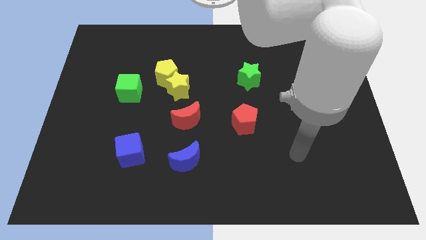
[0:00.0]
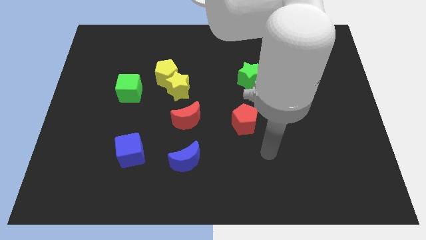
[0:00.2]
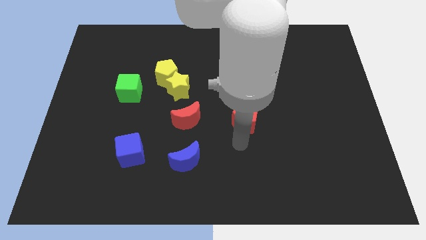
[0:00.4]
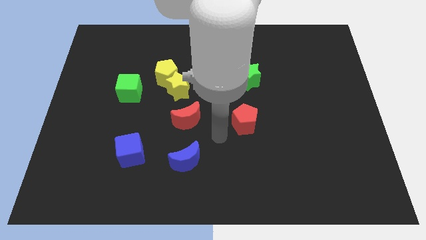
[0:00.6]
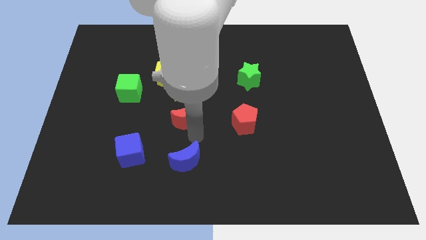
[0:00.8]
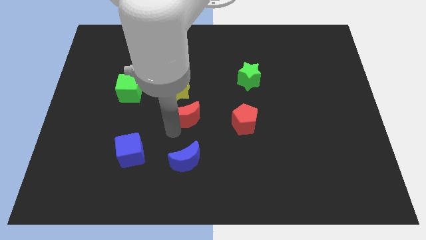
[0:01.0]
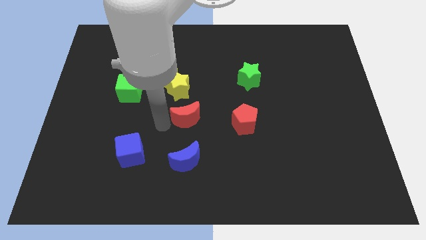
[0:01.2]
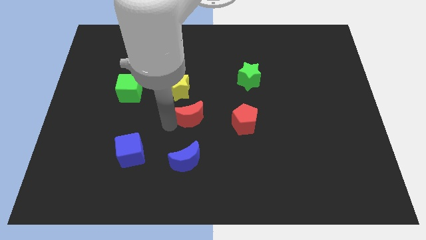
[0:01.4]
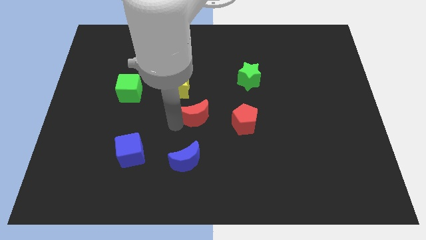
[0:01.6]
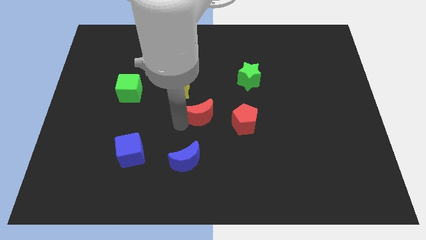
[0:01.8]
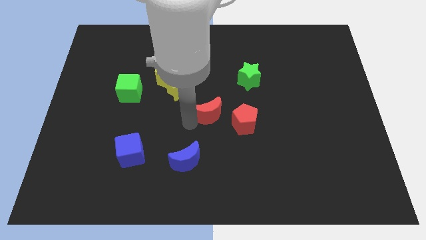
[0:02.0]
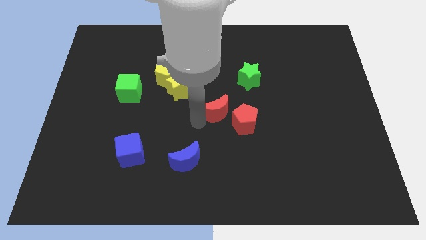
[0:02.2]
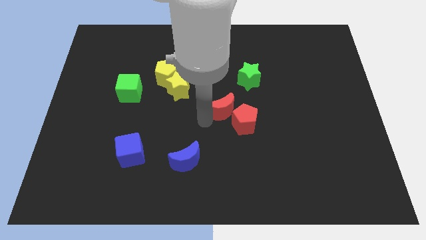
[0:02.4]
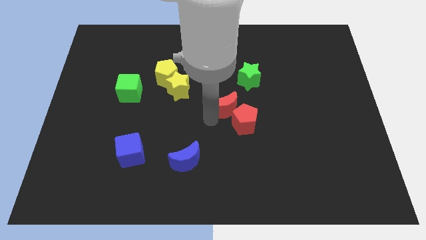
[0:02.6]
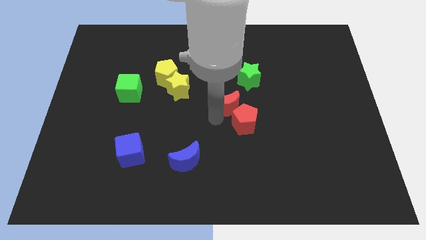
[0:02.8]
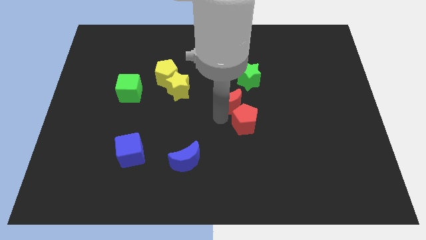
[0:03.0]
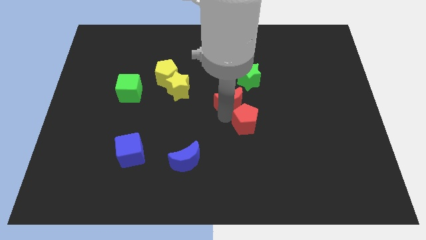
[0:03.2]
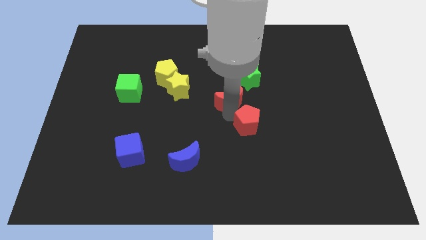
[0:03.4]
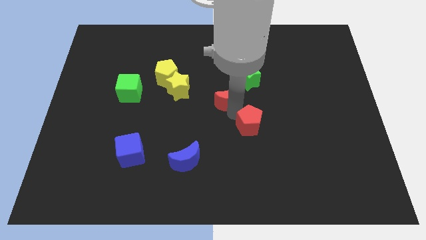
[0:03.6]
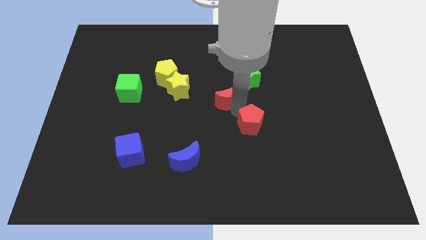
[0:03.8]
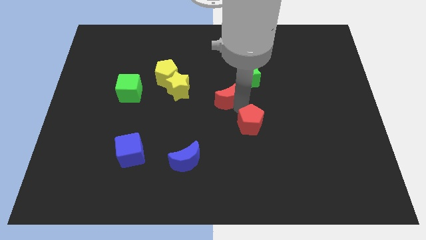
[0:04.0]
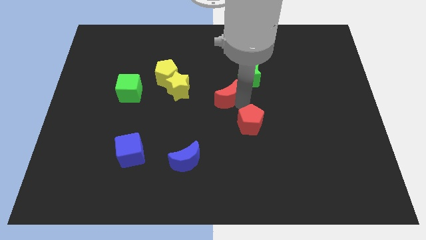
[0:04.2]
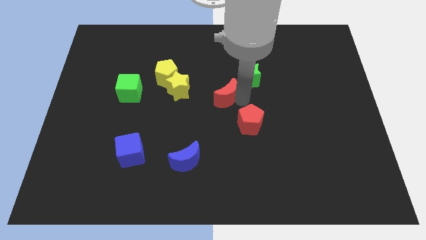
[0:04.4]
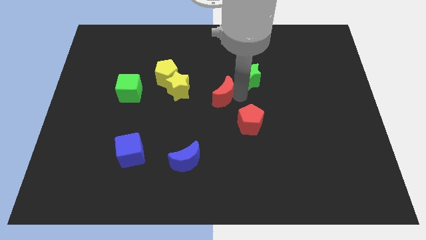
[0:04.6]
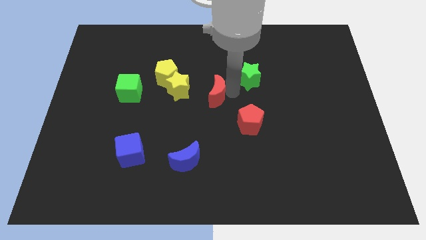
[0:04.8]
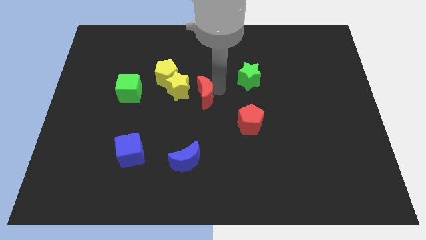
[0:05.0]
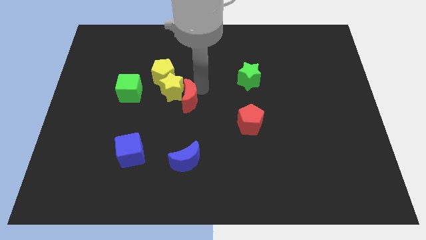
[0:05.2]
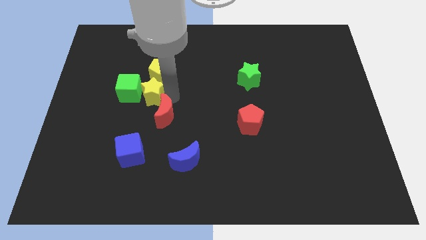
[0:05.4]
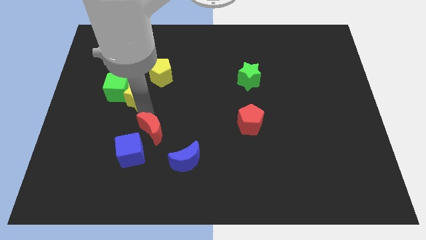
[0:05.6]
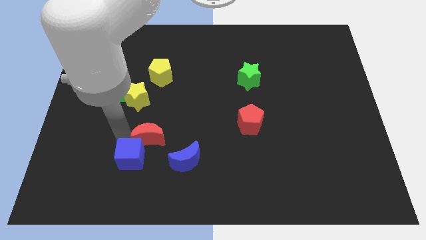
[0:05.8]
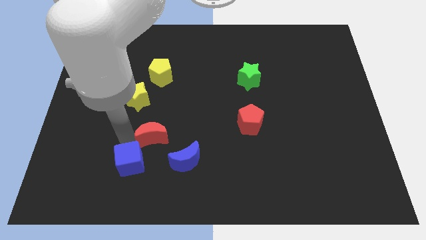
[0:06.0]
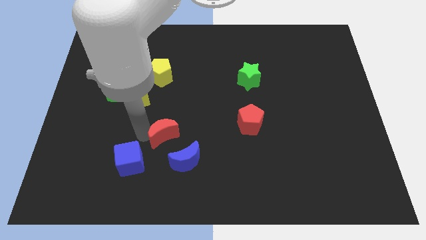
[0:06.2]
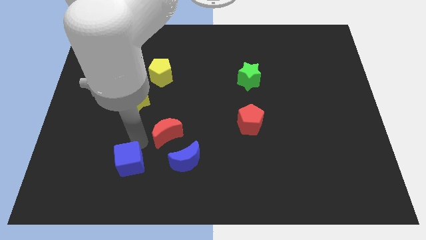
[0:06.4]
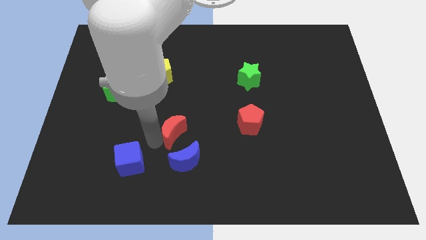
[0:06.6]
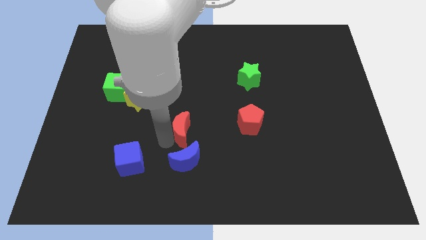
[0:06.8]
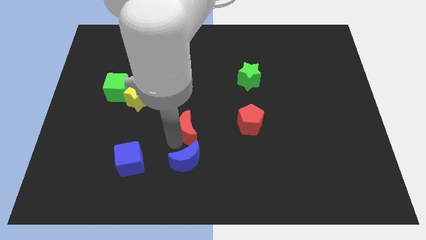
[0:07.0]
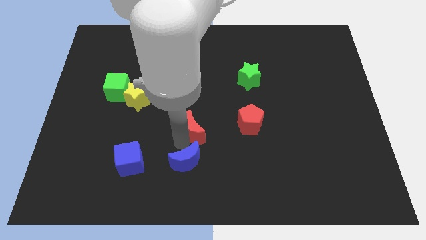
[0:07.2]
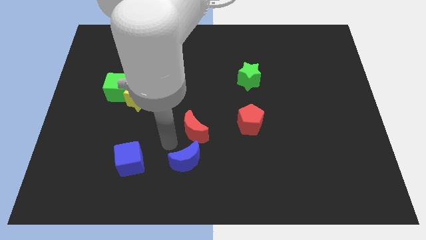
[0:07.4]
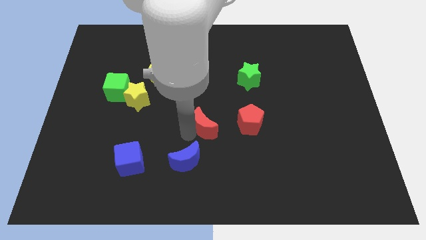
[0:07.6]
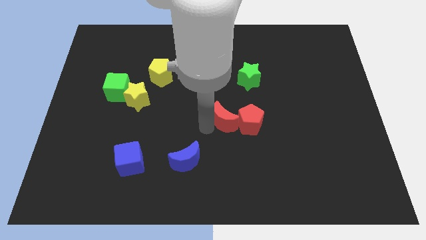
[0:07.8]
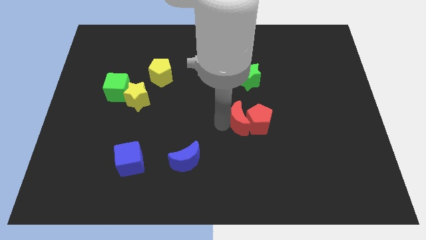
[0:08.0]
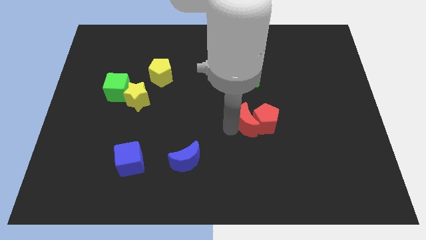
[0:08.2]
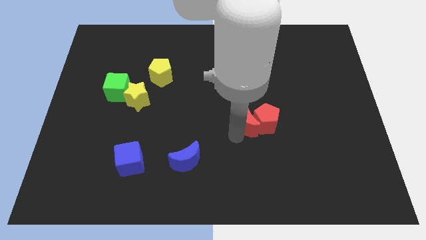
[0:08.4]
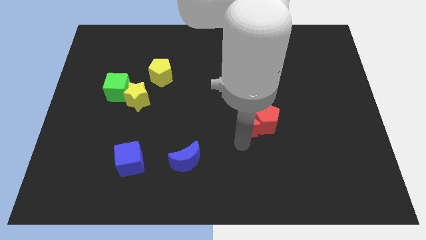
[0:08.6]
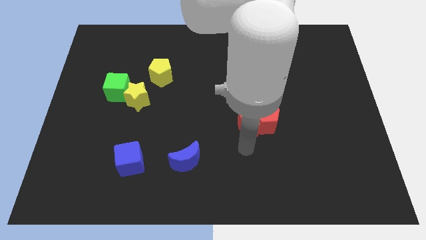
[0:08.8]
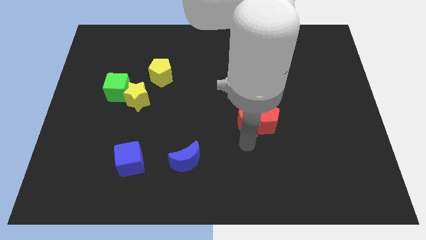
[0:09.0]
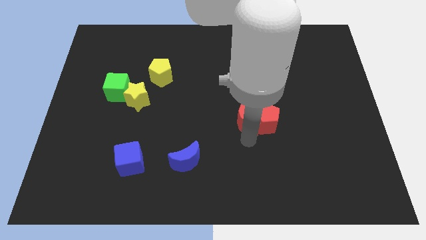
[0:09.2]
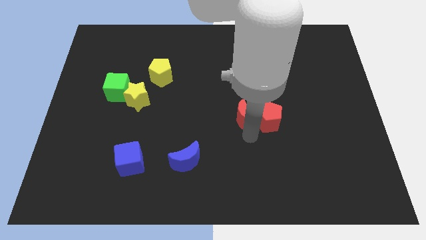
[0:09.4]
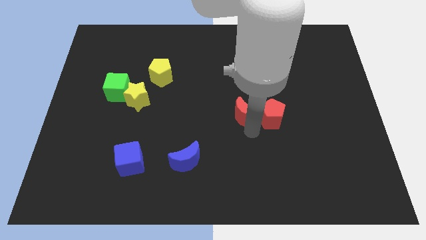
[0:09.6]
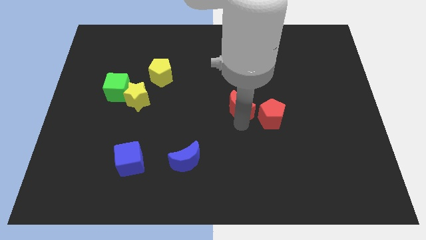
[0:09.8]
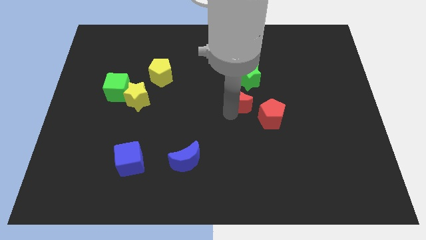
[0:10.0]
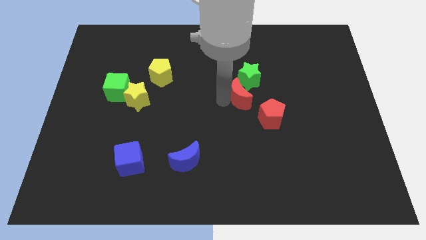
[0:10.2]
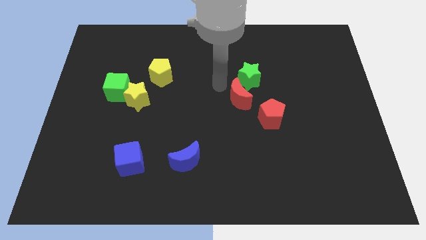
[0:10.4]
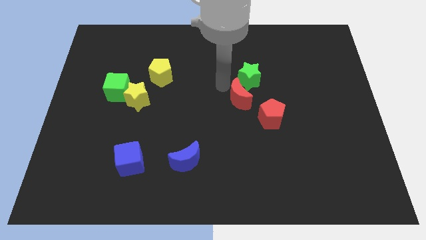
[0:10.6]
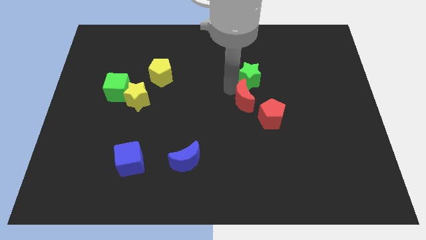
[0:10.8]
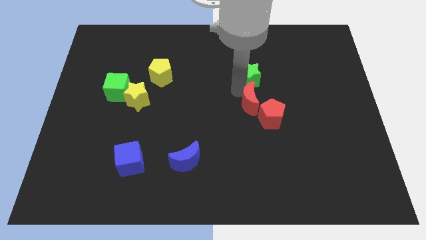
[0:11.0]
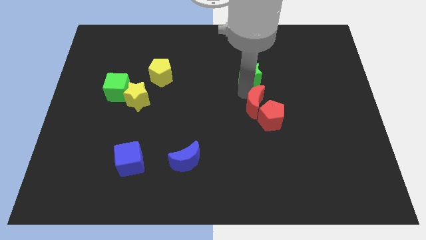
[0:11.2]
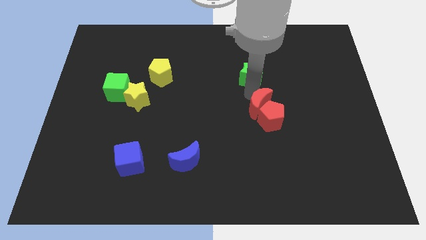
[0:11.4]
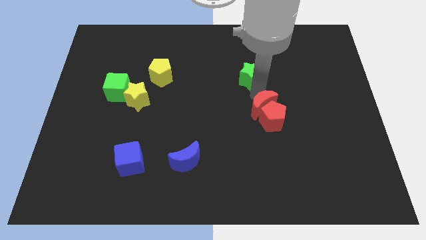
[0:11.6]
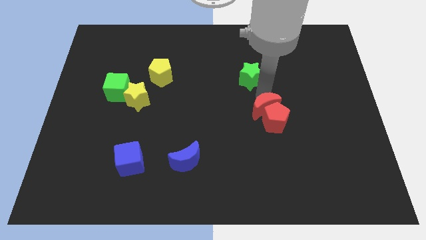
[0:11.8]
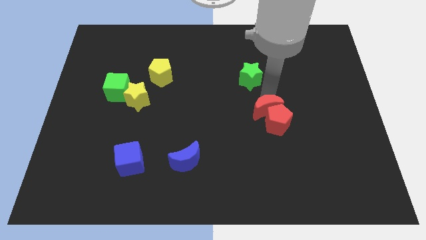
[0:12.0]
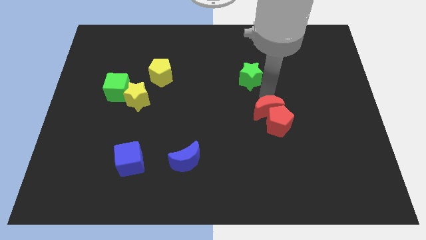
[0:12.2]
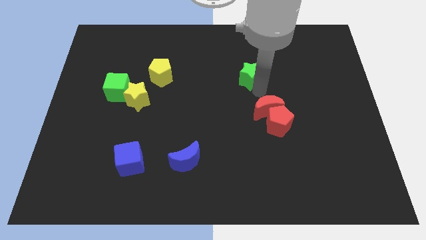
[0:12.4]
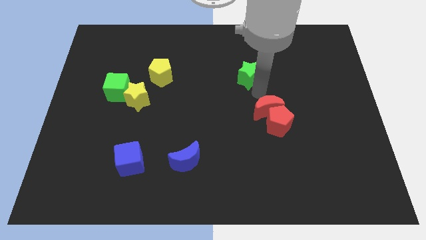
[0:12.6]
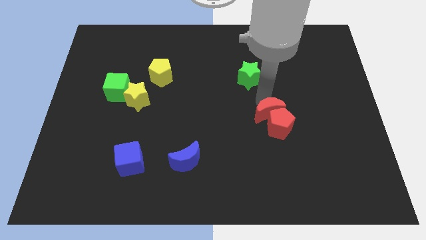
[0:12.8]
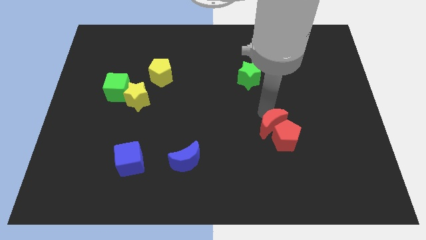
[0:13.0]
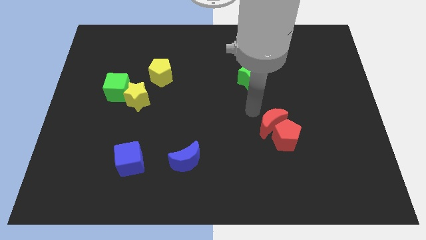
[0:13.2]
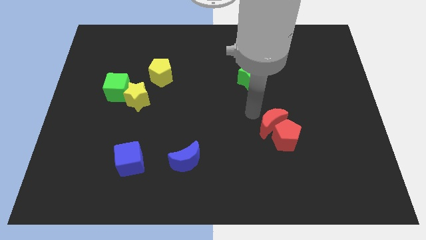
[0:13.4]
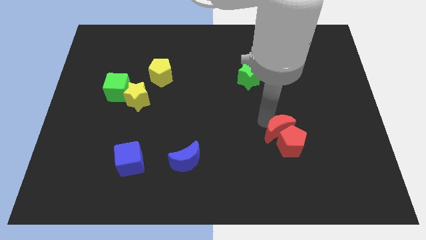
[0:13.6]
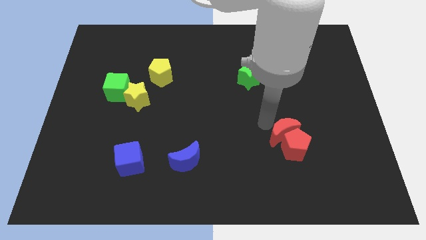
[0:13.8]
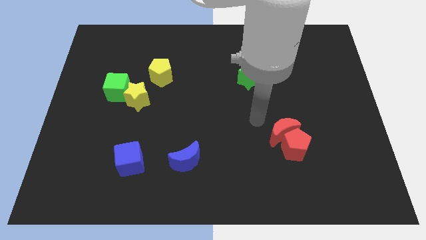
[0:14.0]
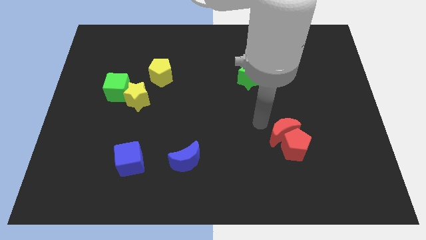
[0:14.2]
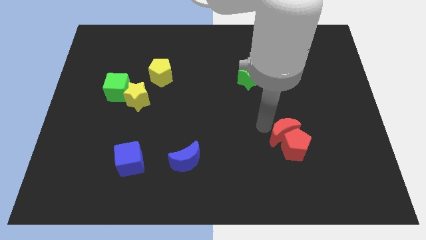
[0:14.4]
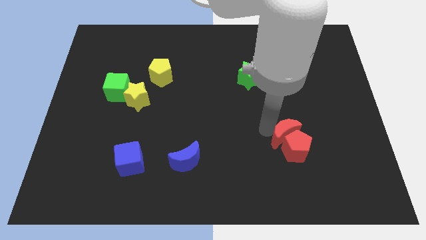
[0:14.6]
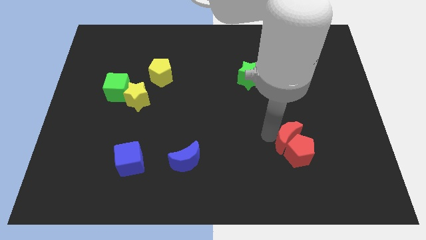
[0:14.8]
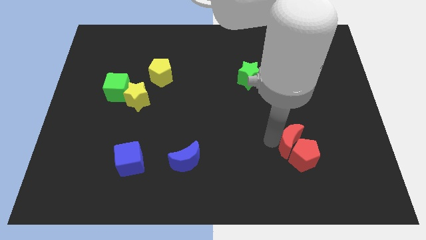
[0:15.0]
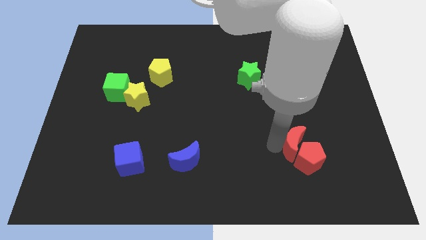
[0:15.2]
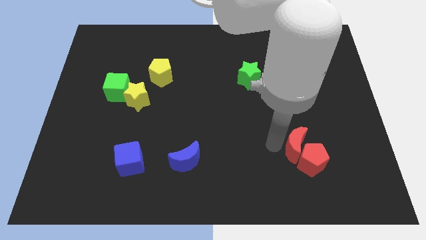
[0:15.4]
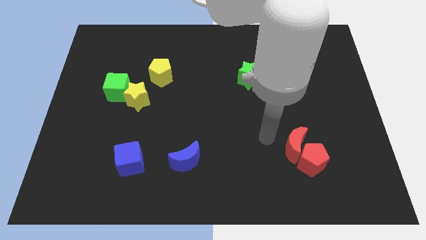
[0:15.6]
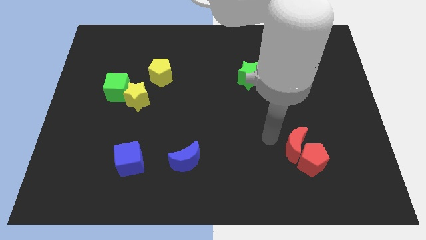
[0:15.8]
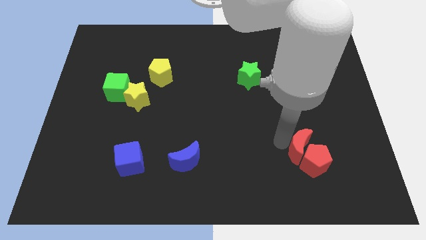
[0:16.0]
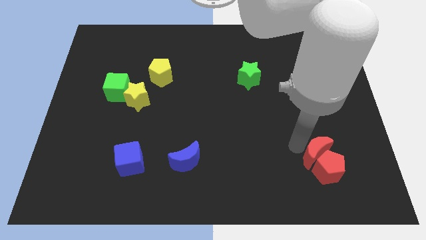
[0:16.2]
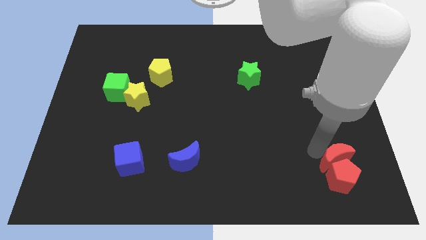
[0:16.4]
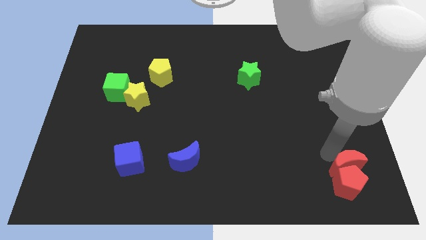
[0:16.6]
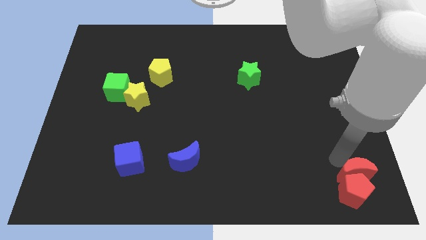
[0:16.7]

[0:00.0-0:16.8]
push the red moon to the bottom right of the board
